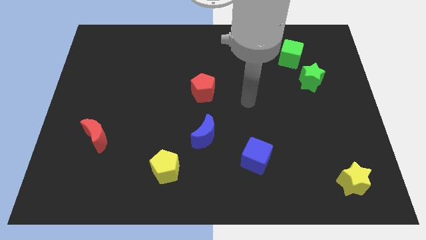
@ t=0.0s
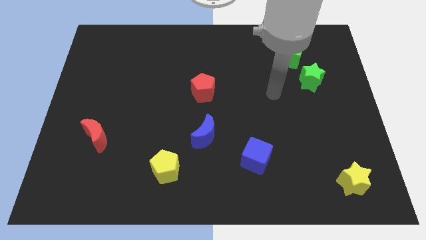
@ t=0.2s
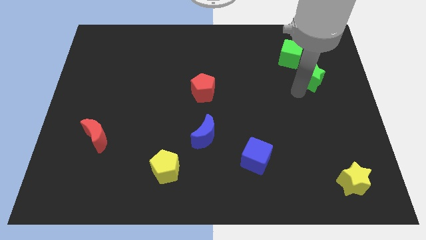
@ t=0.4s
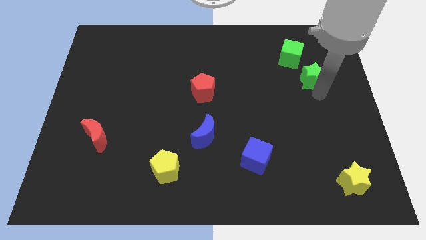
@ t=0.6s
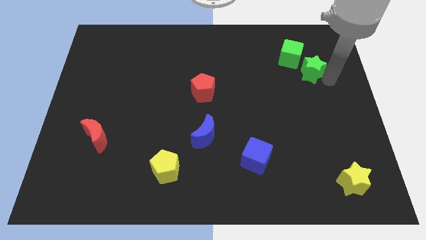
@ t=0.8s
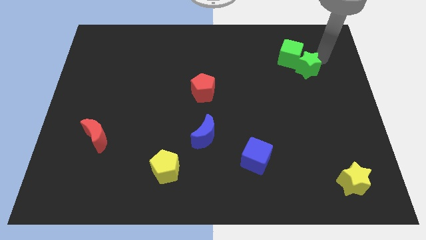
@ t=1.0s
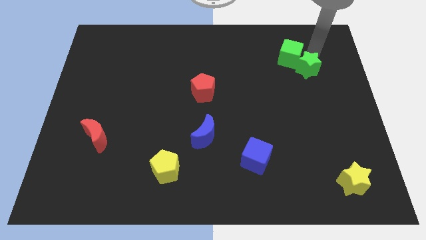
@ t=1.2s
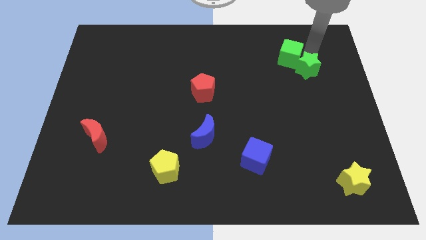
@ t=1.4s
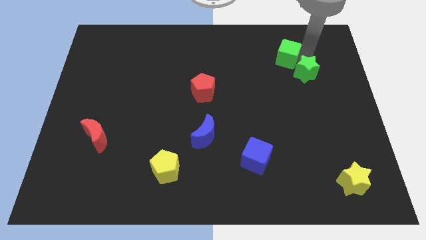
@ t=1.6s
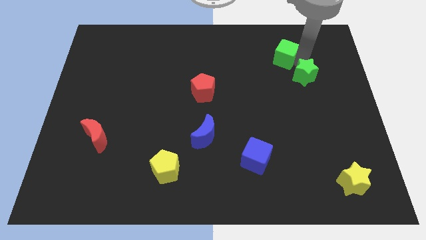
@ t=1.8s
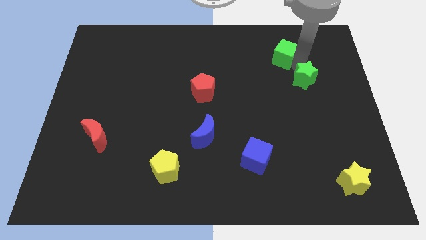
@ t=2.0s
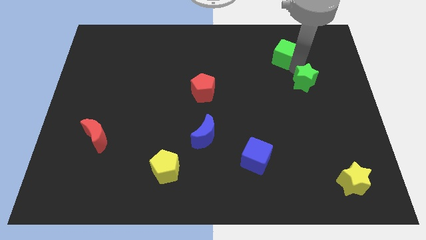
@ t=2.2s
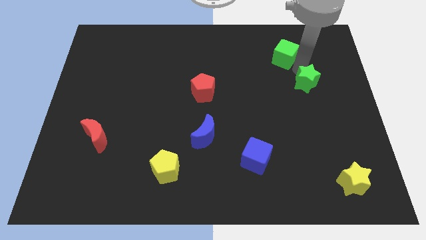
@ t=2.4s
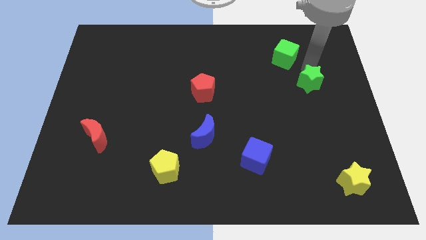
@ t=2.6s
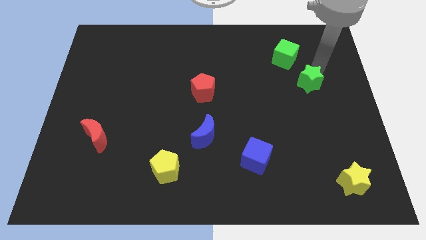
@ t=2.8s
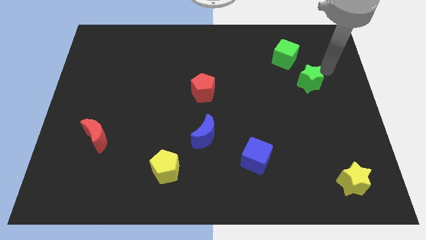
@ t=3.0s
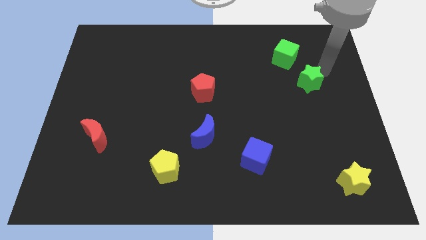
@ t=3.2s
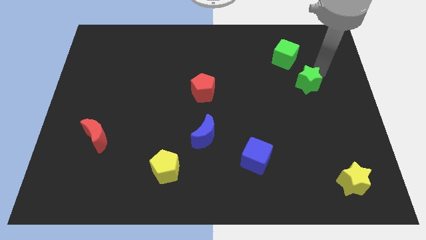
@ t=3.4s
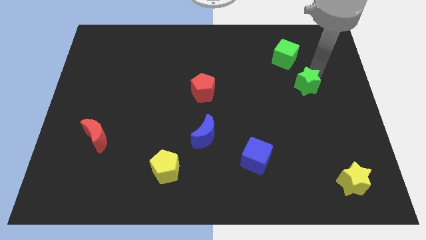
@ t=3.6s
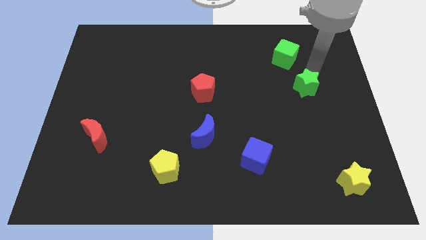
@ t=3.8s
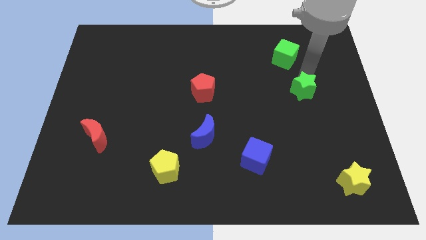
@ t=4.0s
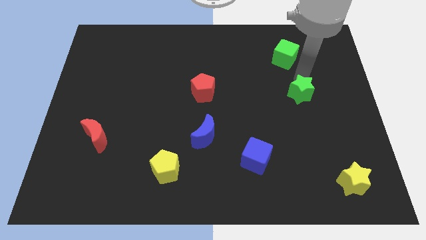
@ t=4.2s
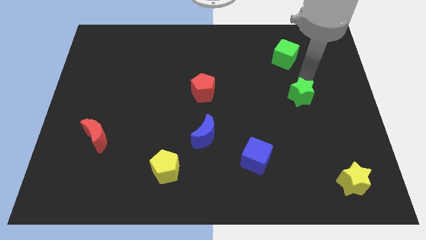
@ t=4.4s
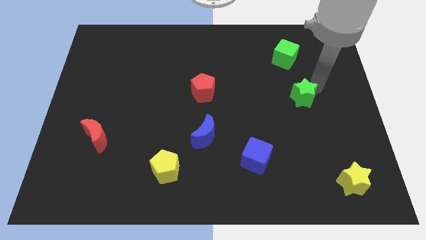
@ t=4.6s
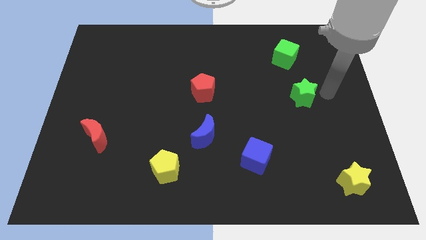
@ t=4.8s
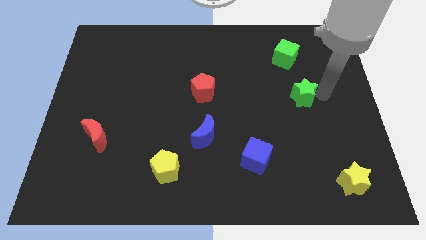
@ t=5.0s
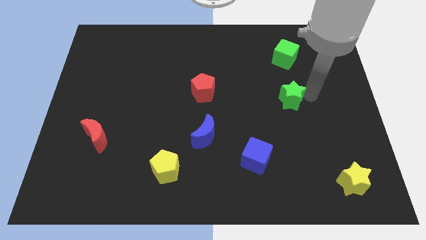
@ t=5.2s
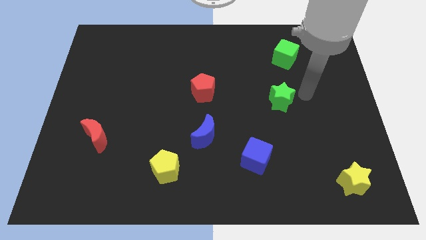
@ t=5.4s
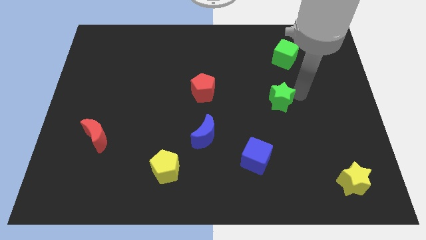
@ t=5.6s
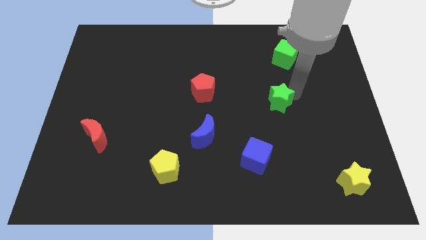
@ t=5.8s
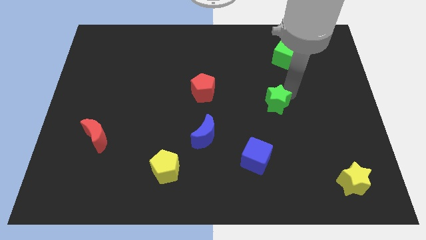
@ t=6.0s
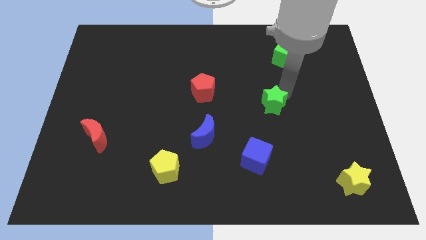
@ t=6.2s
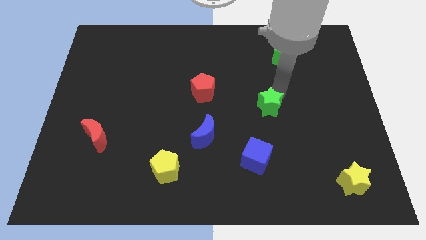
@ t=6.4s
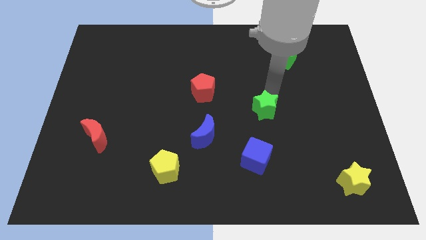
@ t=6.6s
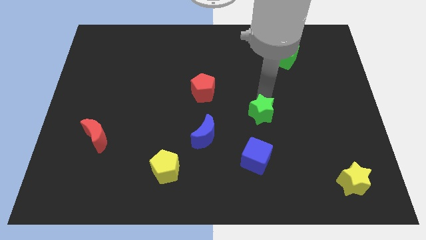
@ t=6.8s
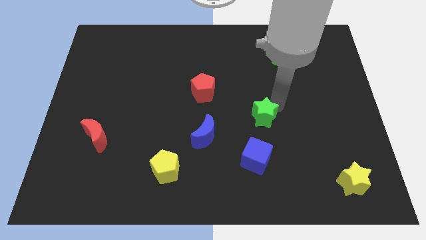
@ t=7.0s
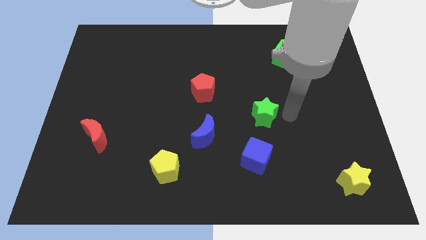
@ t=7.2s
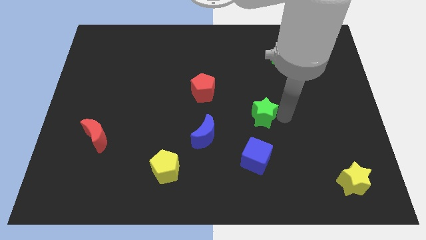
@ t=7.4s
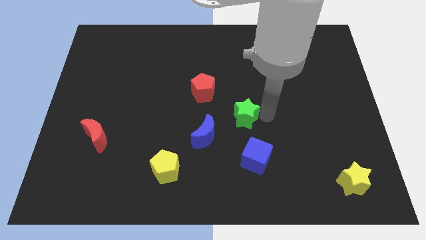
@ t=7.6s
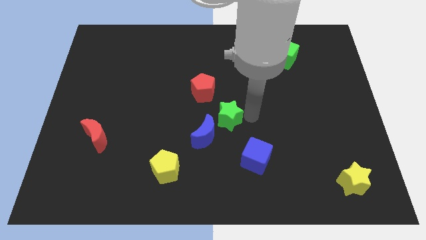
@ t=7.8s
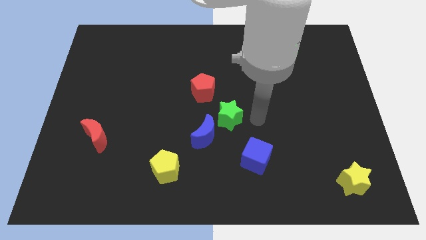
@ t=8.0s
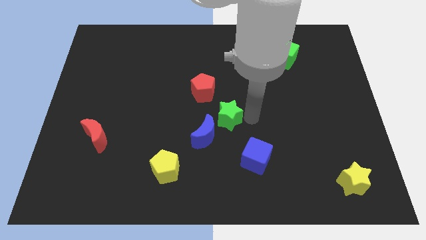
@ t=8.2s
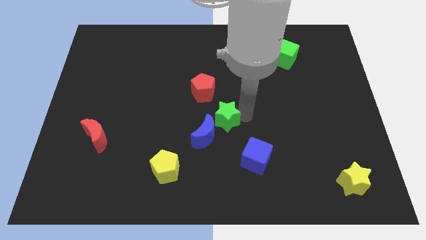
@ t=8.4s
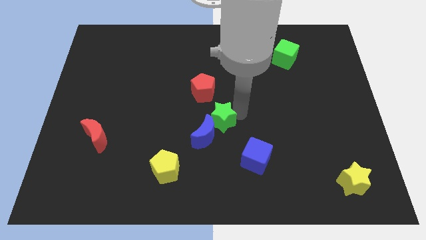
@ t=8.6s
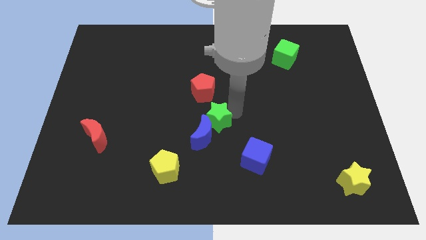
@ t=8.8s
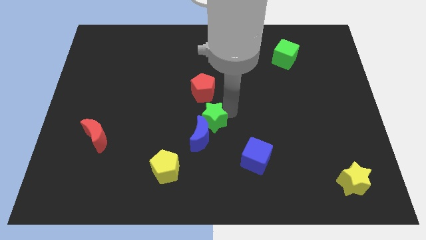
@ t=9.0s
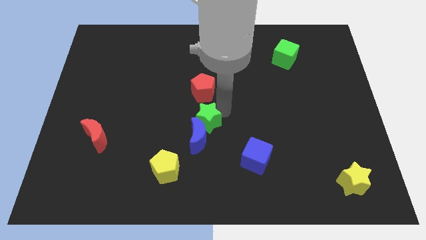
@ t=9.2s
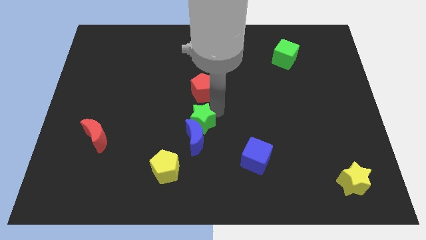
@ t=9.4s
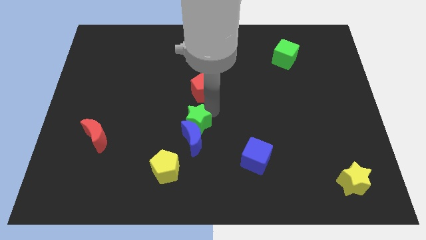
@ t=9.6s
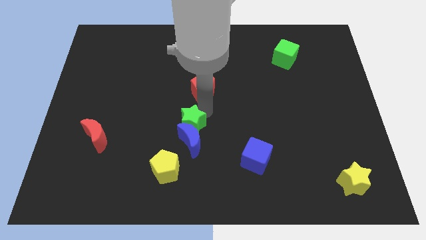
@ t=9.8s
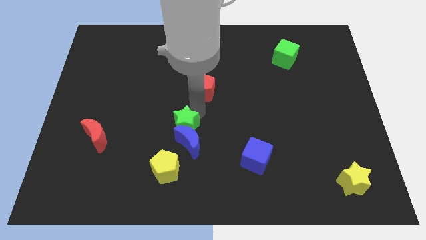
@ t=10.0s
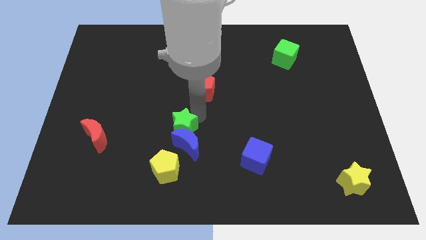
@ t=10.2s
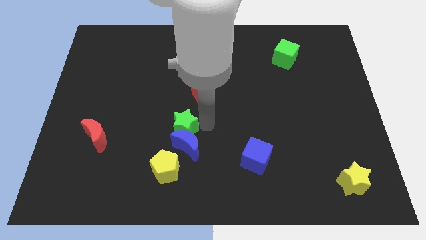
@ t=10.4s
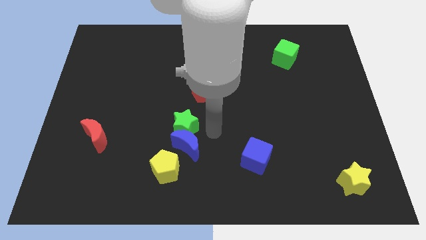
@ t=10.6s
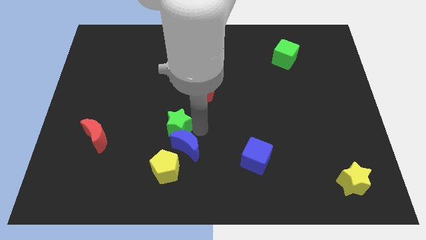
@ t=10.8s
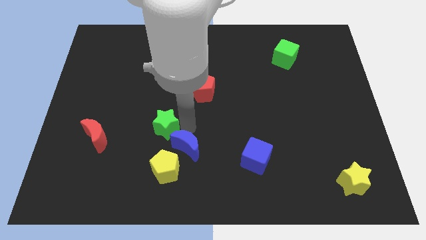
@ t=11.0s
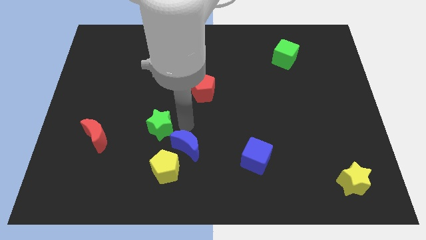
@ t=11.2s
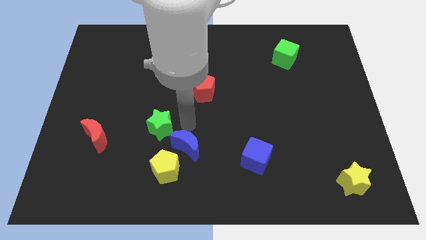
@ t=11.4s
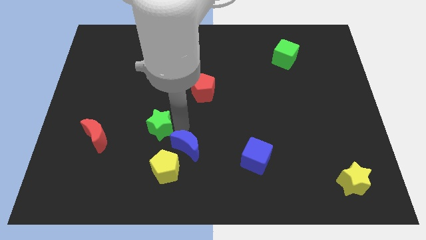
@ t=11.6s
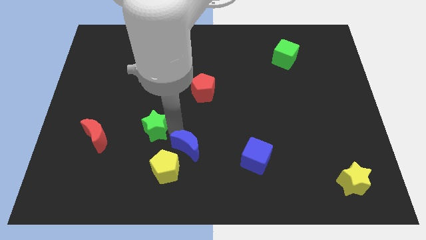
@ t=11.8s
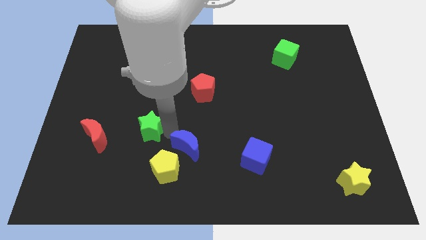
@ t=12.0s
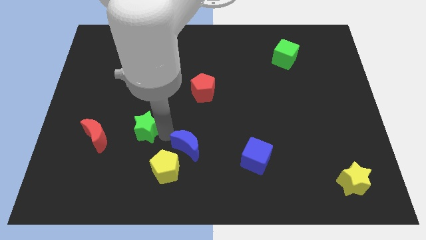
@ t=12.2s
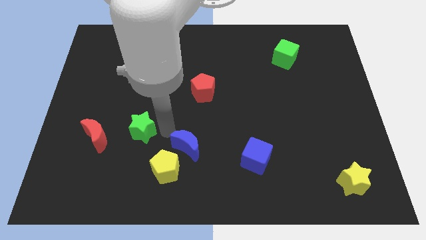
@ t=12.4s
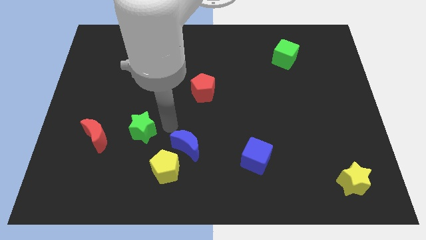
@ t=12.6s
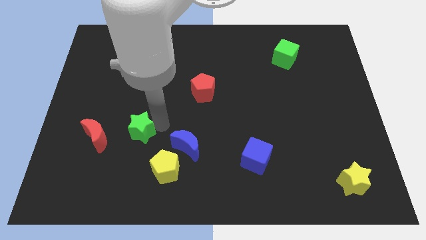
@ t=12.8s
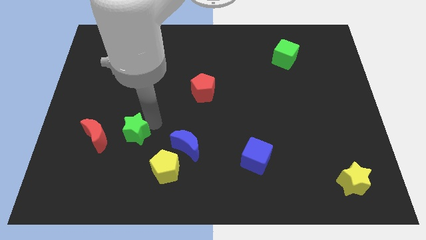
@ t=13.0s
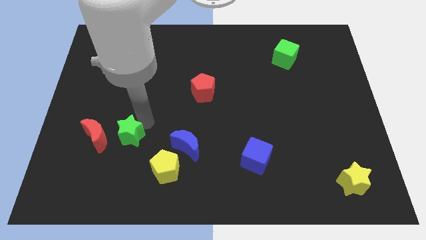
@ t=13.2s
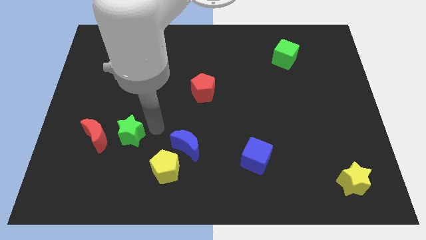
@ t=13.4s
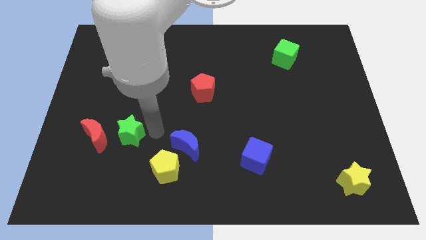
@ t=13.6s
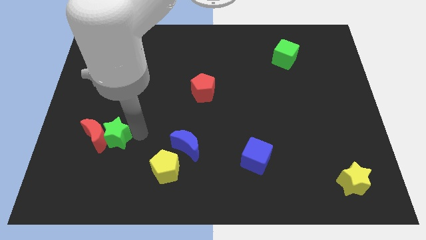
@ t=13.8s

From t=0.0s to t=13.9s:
push the green star next to the red moon
